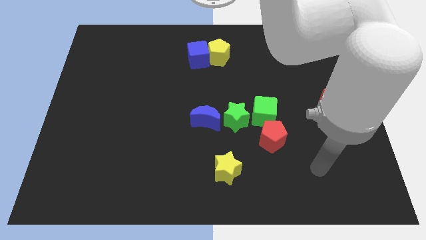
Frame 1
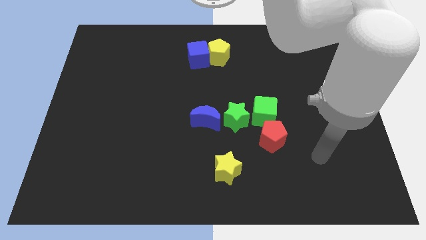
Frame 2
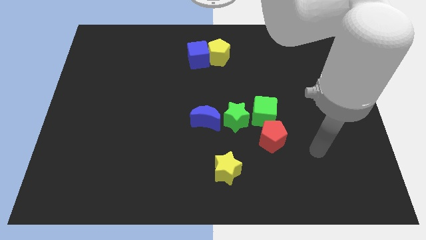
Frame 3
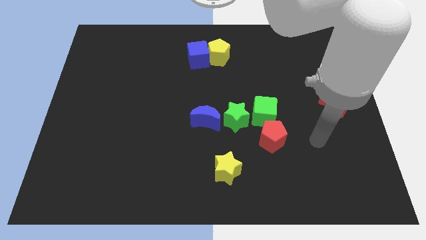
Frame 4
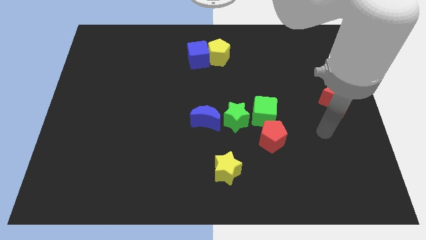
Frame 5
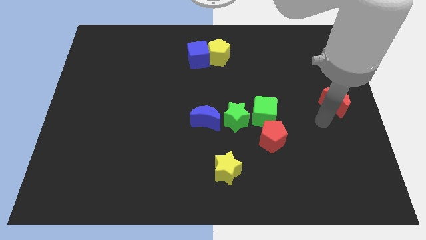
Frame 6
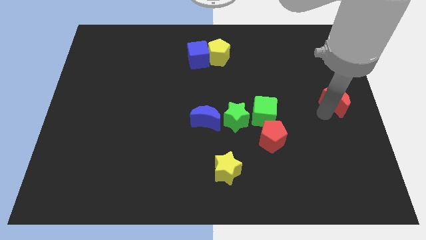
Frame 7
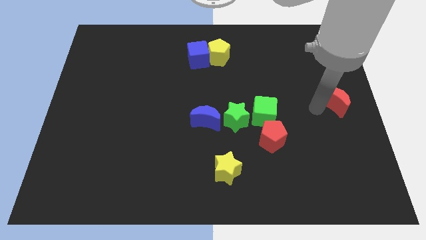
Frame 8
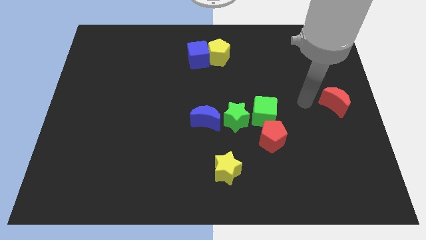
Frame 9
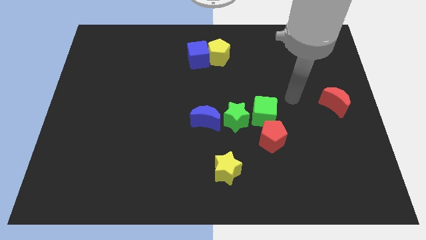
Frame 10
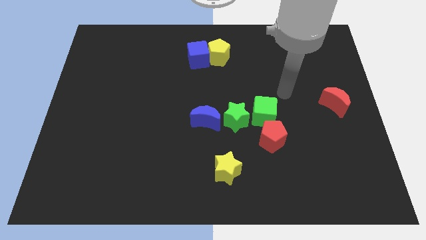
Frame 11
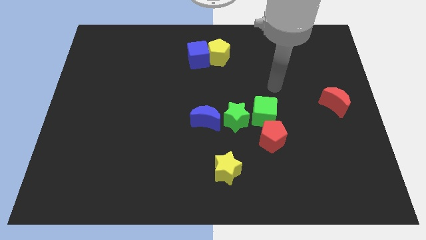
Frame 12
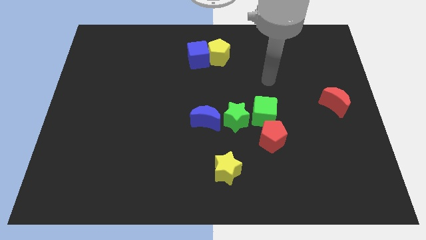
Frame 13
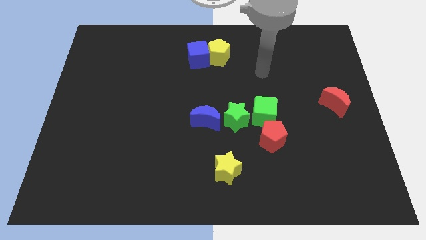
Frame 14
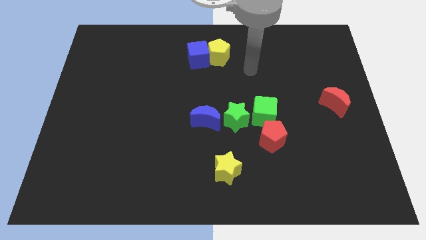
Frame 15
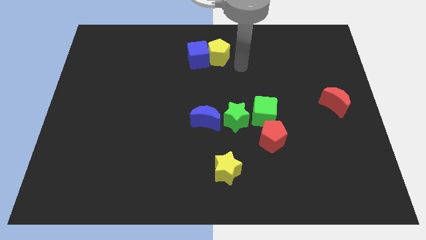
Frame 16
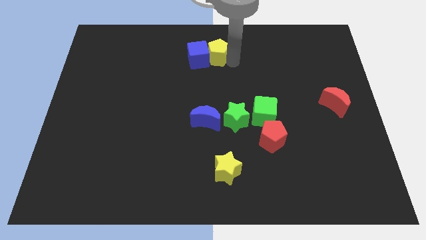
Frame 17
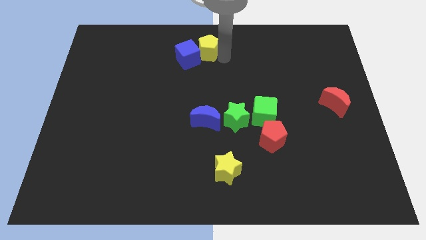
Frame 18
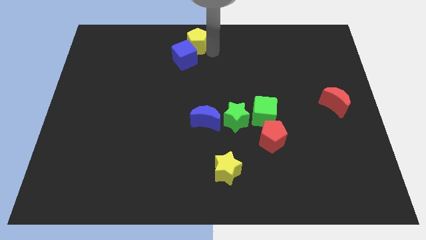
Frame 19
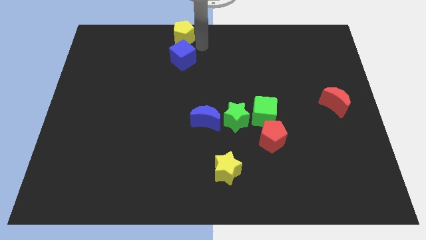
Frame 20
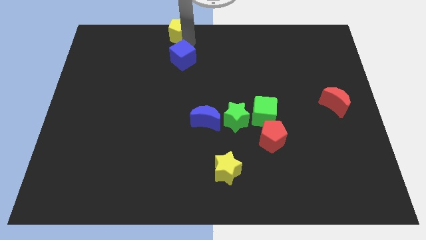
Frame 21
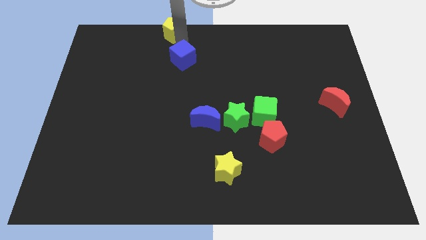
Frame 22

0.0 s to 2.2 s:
separate the blue cube from the yellow pentagon

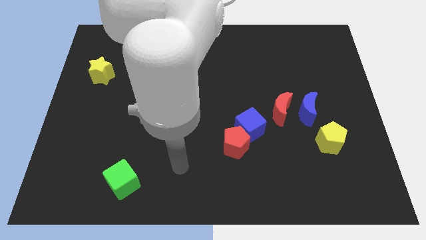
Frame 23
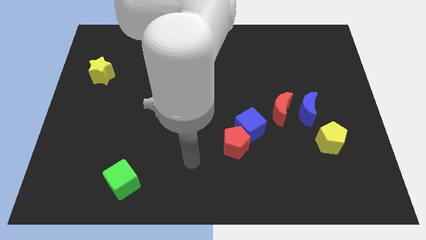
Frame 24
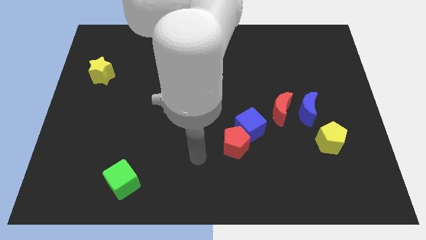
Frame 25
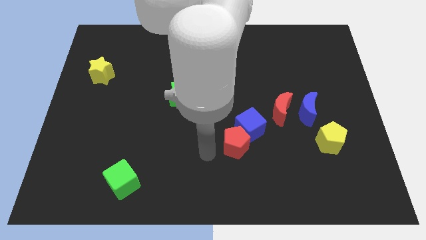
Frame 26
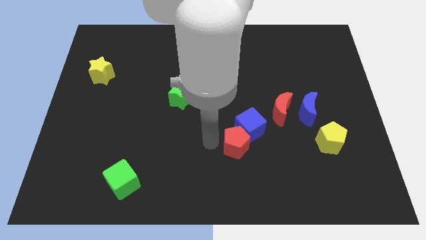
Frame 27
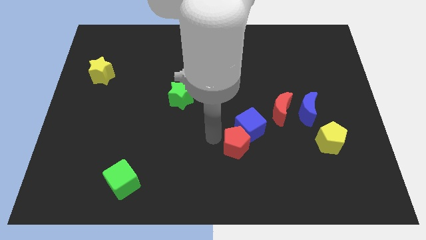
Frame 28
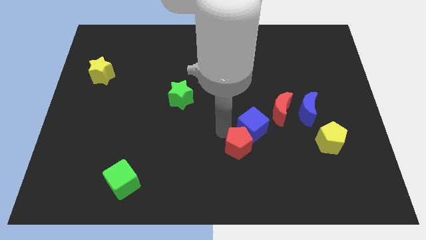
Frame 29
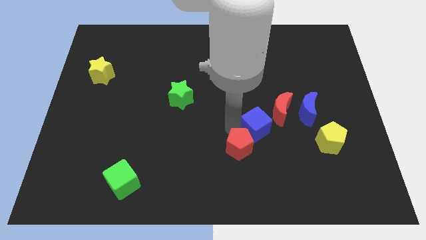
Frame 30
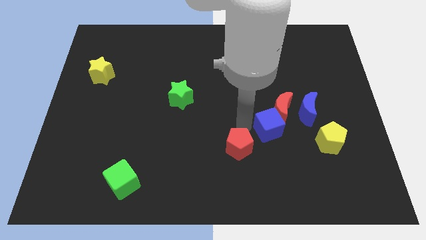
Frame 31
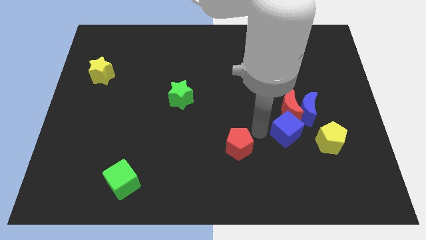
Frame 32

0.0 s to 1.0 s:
pull the red pentagon apart from the blue cube

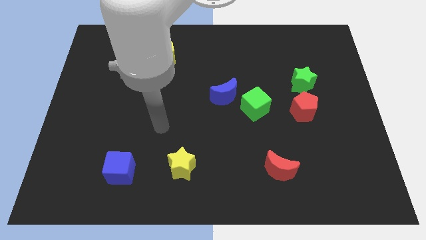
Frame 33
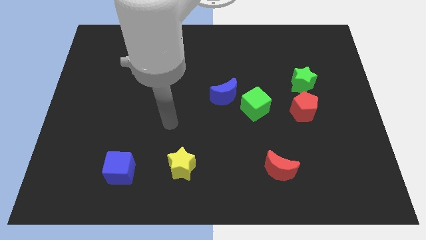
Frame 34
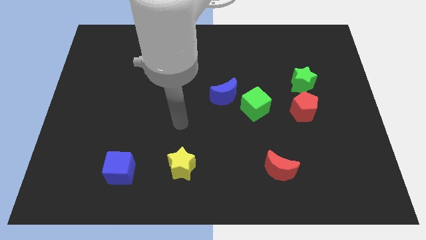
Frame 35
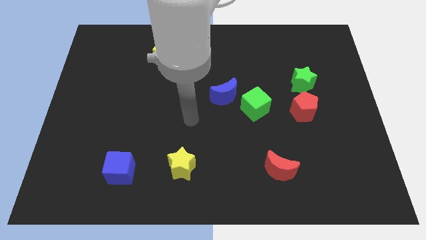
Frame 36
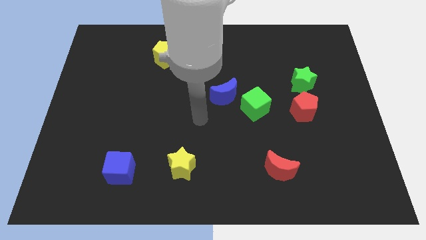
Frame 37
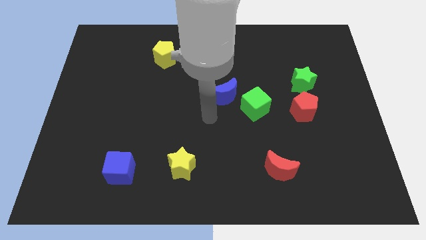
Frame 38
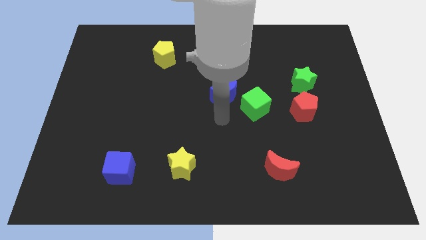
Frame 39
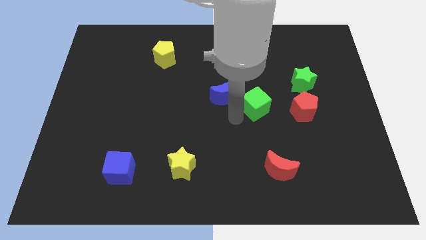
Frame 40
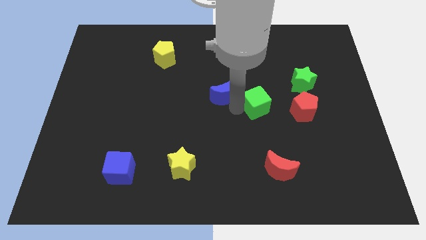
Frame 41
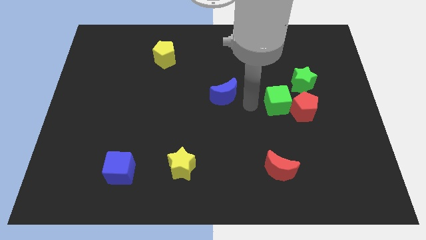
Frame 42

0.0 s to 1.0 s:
pull the blue moon apart from the green cube

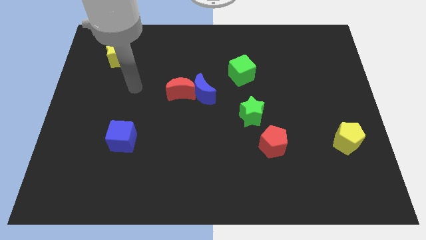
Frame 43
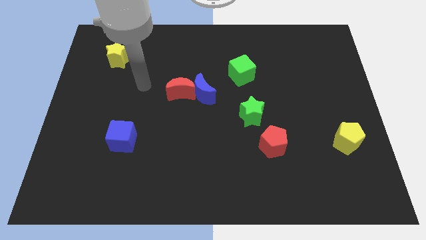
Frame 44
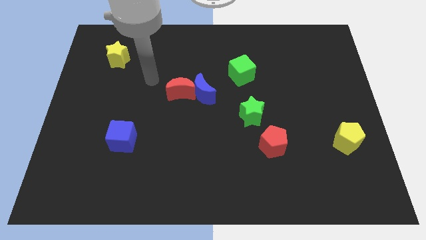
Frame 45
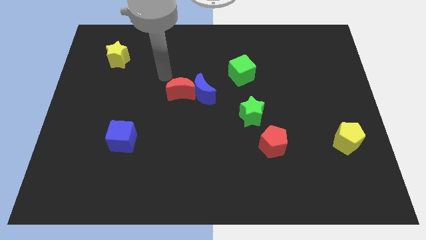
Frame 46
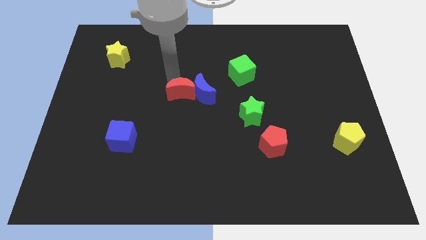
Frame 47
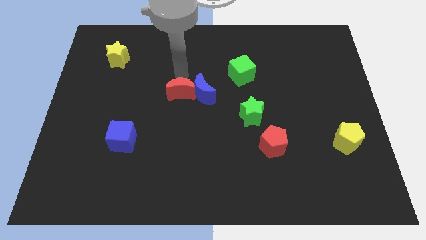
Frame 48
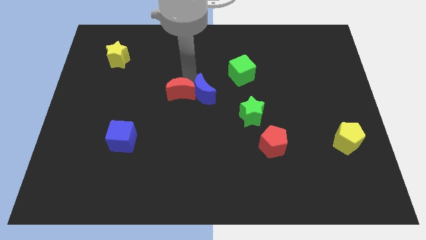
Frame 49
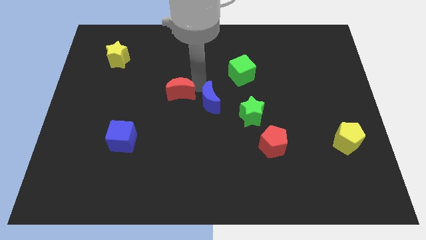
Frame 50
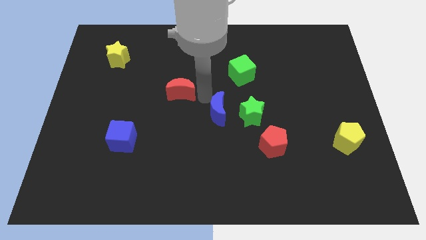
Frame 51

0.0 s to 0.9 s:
separate the red moon from the blue moon

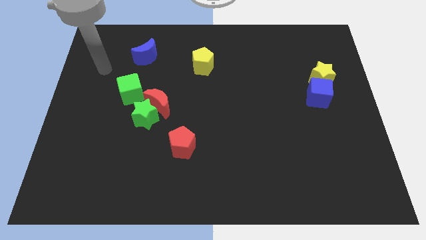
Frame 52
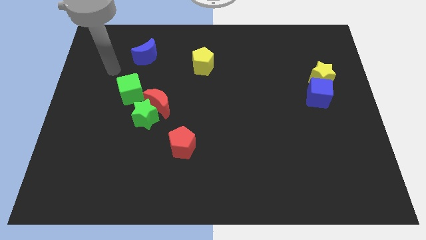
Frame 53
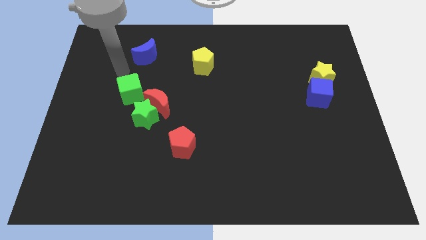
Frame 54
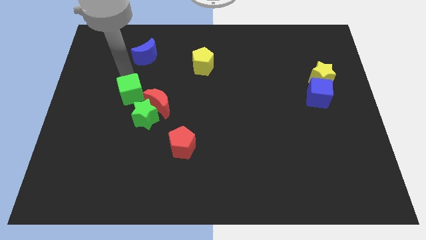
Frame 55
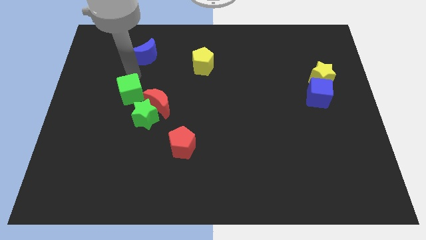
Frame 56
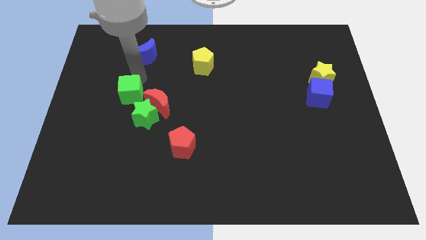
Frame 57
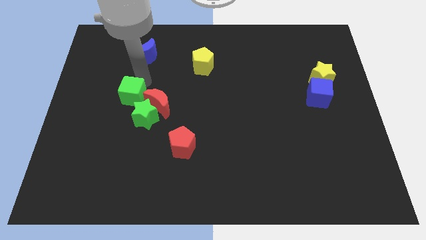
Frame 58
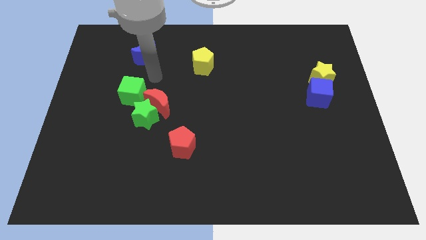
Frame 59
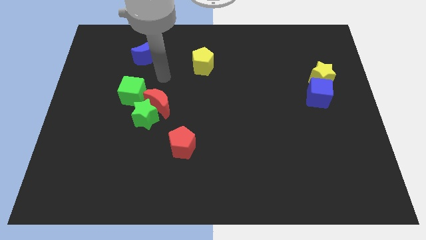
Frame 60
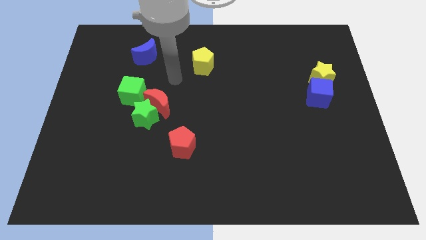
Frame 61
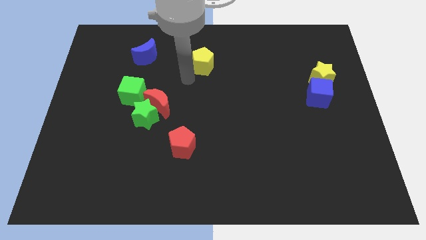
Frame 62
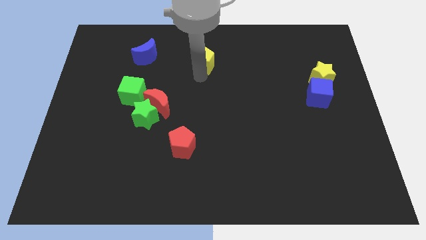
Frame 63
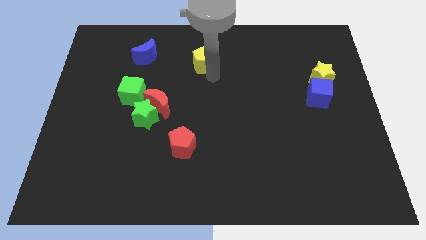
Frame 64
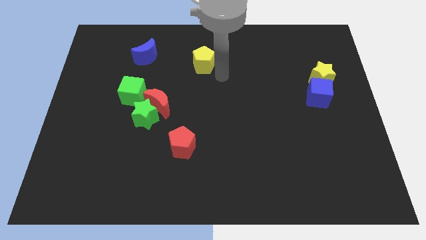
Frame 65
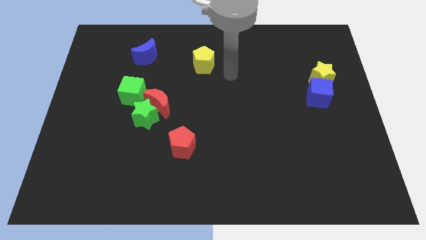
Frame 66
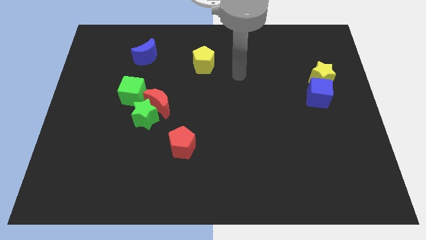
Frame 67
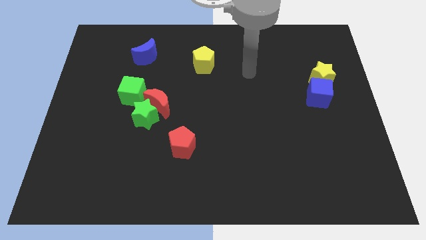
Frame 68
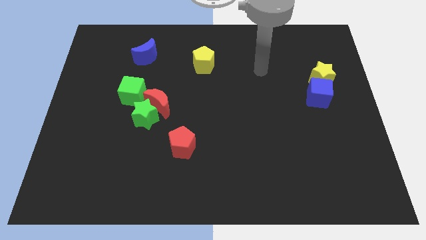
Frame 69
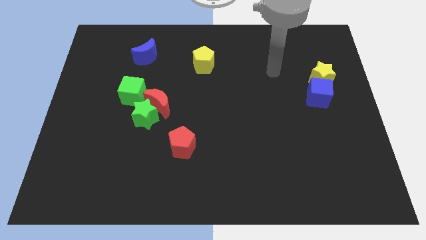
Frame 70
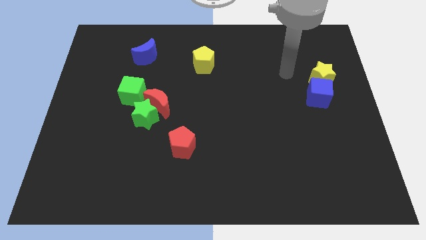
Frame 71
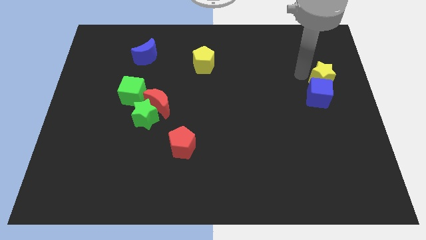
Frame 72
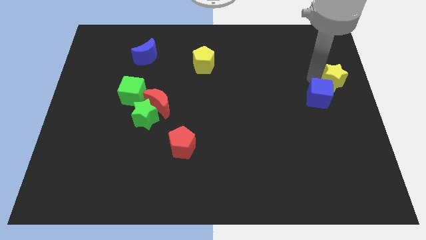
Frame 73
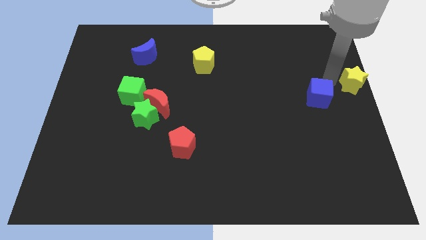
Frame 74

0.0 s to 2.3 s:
separate the blue cube from the yellow star

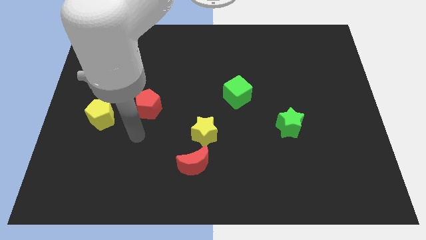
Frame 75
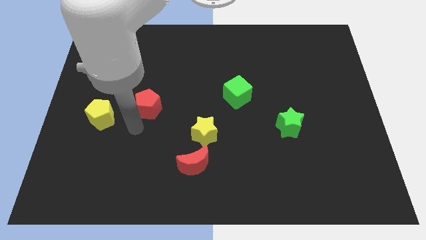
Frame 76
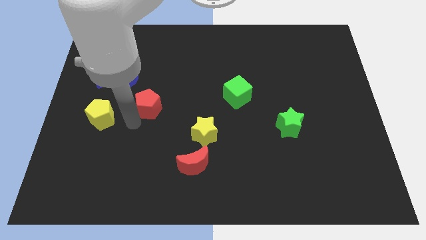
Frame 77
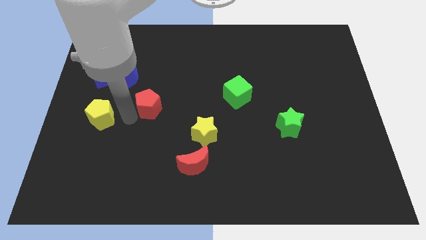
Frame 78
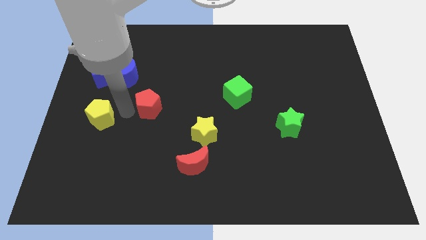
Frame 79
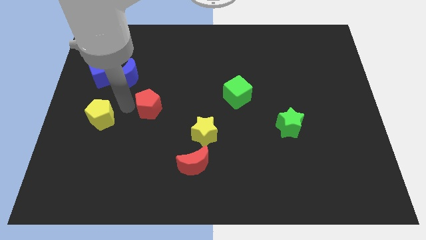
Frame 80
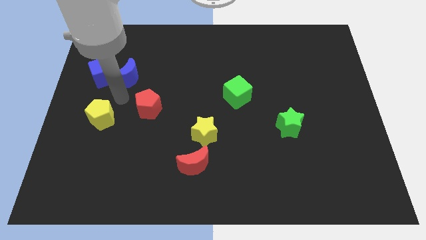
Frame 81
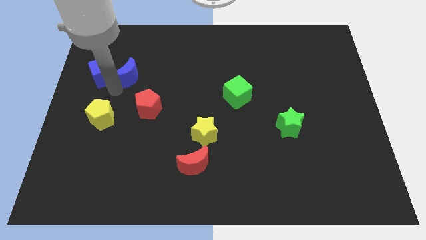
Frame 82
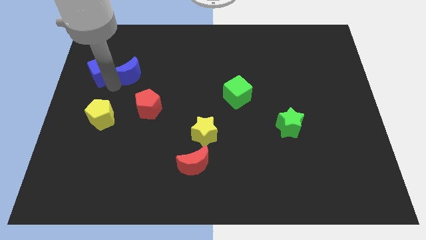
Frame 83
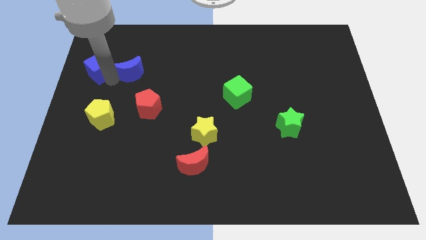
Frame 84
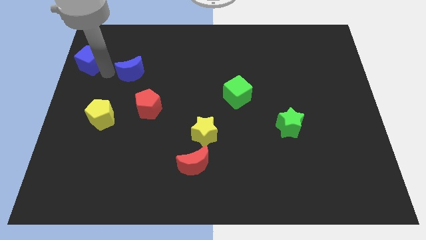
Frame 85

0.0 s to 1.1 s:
move the blue moon away from the blue cube

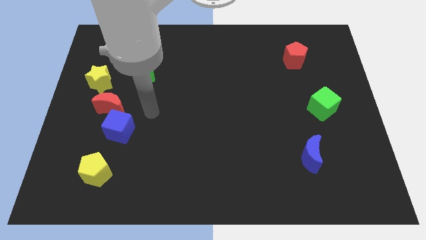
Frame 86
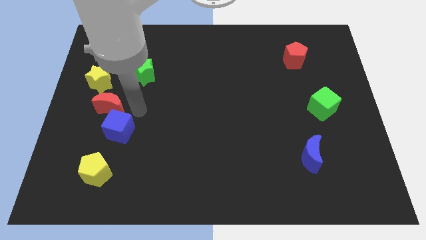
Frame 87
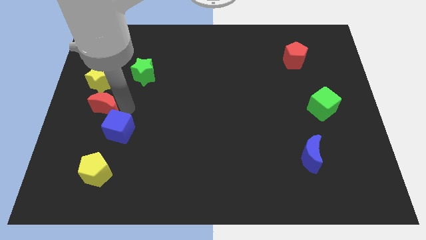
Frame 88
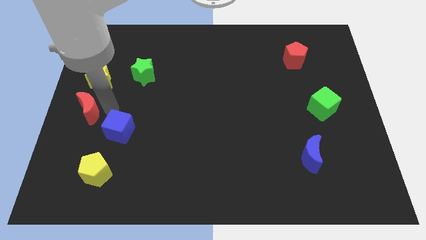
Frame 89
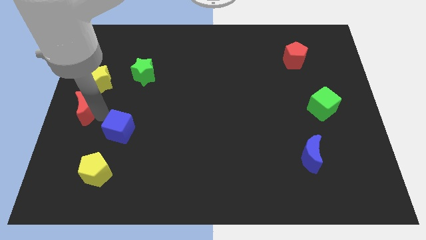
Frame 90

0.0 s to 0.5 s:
separate the blue cube from the red moon

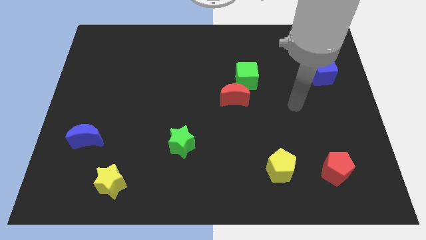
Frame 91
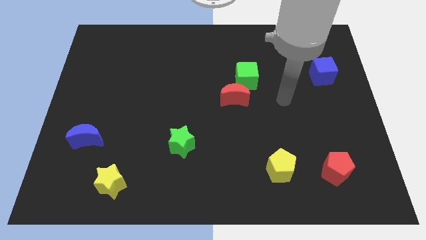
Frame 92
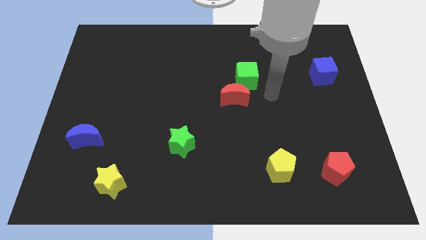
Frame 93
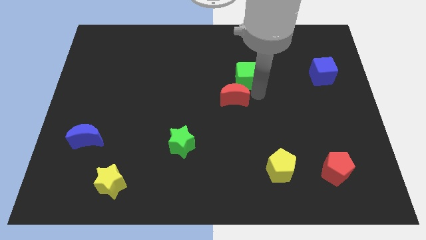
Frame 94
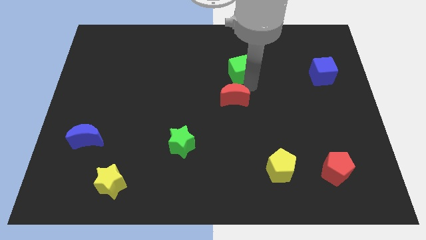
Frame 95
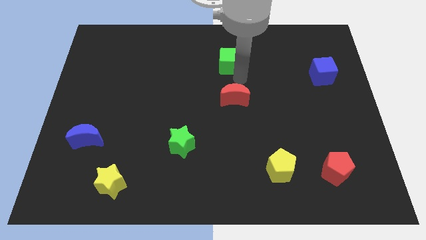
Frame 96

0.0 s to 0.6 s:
separate the red moon from the green cube
